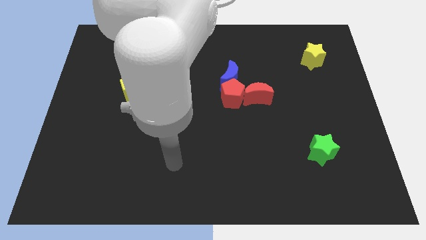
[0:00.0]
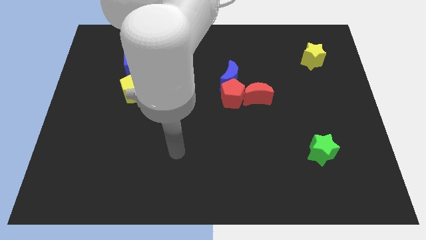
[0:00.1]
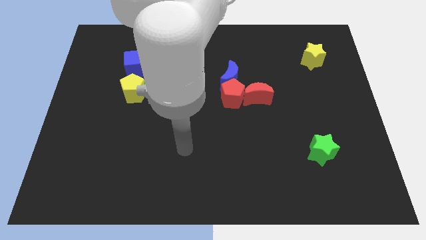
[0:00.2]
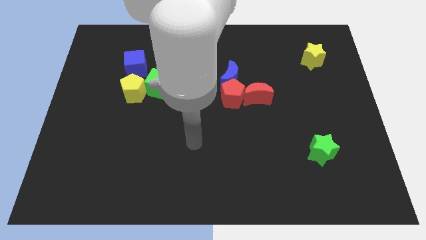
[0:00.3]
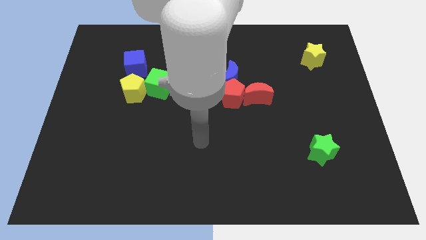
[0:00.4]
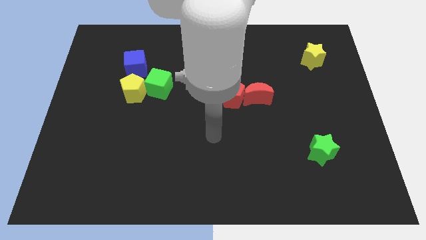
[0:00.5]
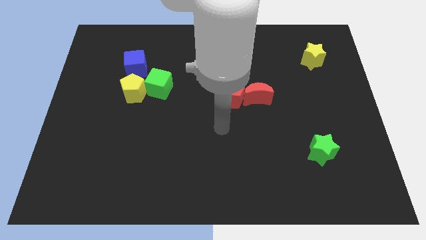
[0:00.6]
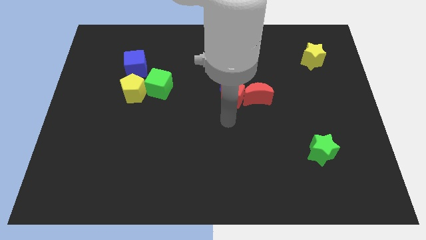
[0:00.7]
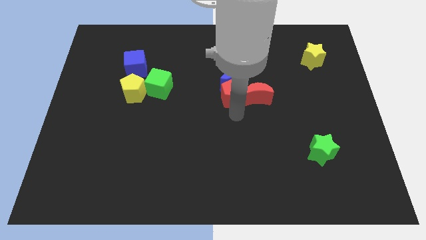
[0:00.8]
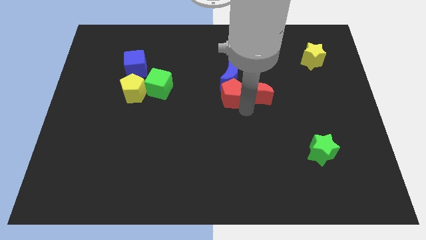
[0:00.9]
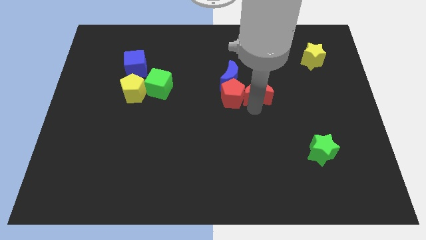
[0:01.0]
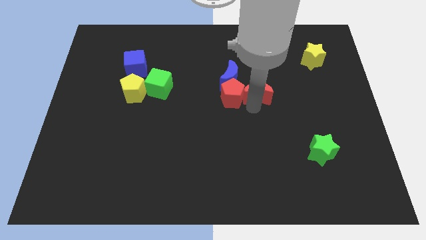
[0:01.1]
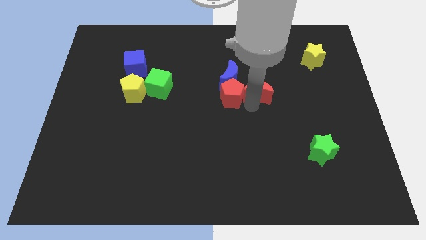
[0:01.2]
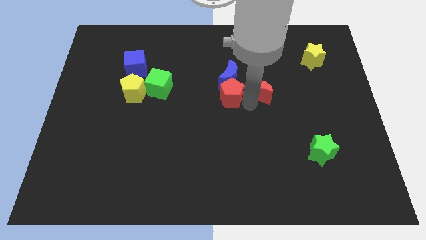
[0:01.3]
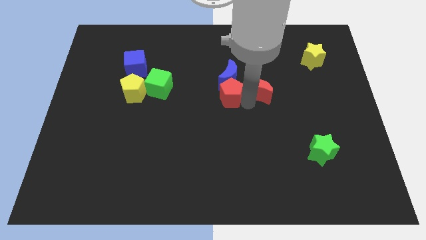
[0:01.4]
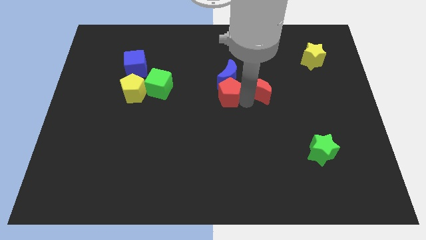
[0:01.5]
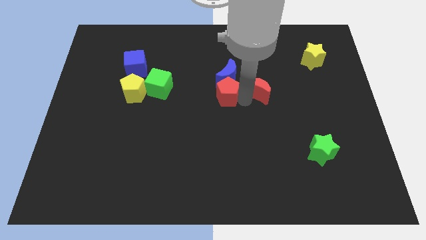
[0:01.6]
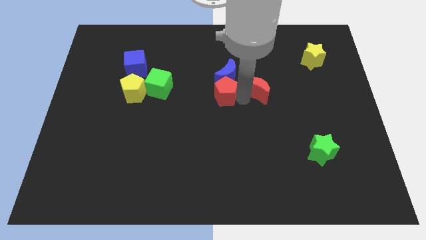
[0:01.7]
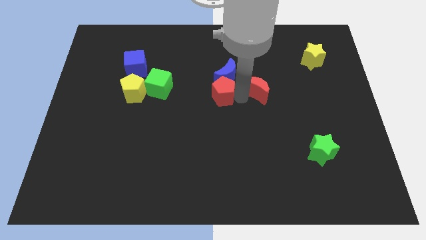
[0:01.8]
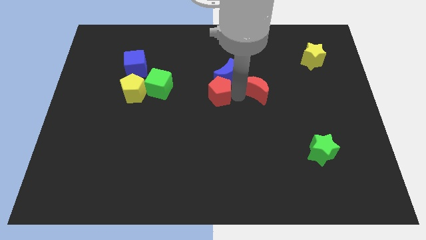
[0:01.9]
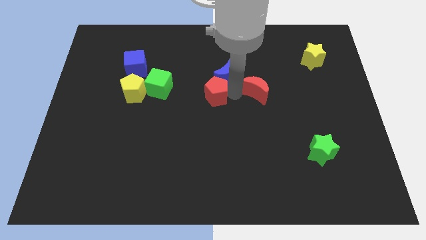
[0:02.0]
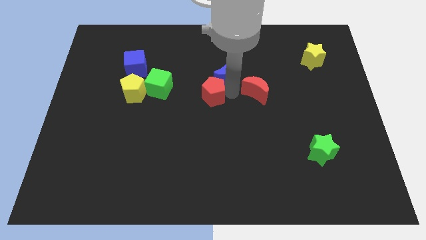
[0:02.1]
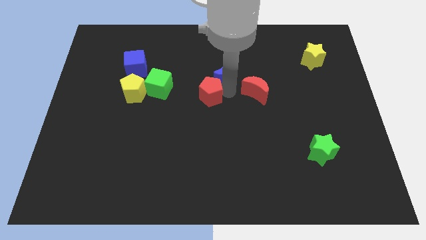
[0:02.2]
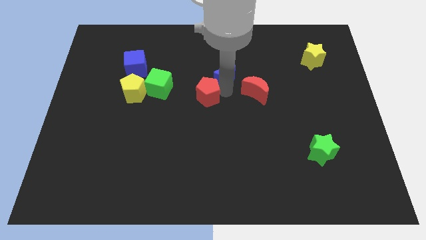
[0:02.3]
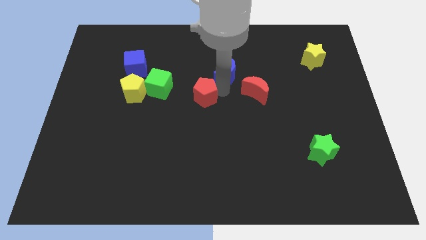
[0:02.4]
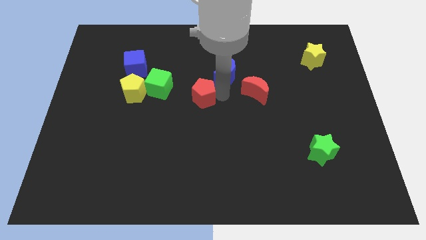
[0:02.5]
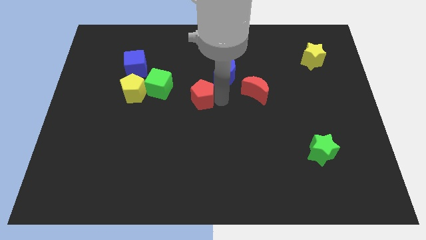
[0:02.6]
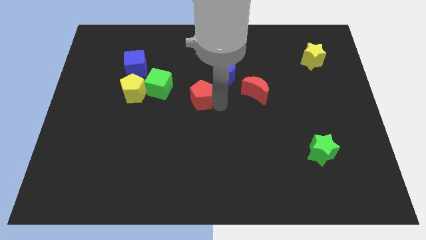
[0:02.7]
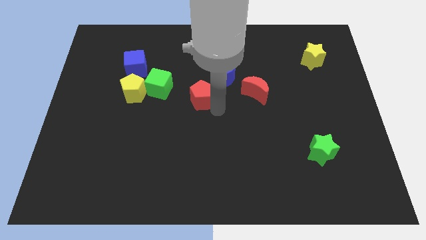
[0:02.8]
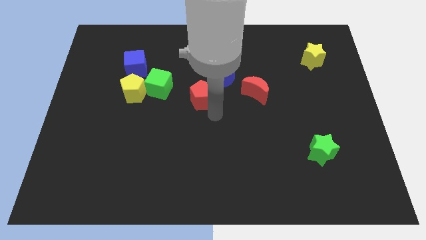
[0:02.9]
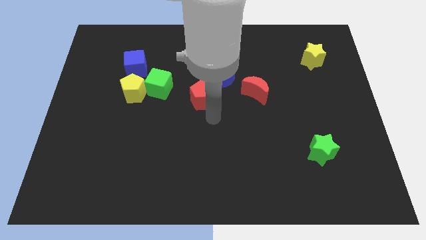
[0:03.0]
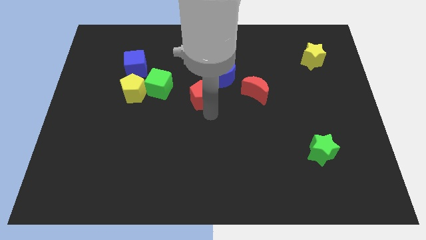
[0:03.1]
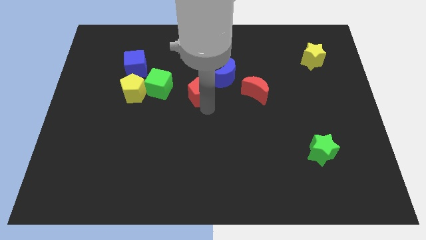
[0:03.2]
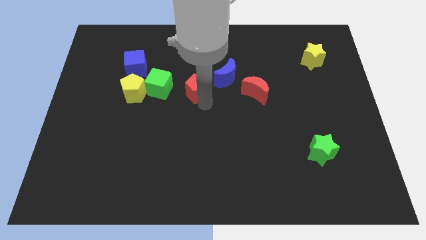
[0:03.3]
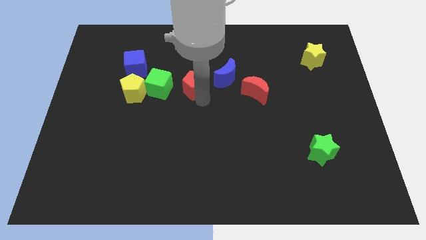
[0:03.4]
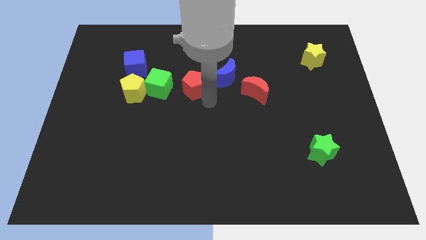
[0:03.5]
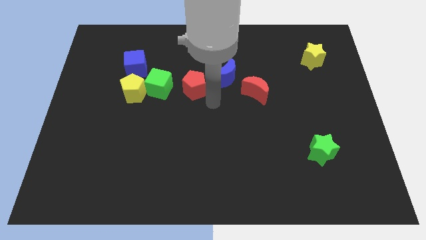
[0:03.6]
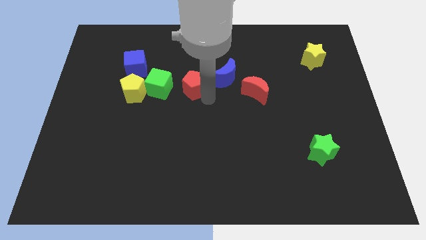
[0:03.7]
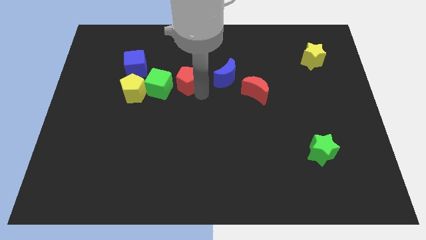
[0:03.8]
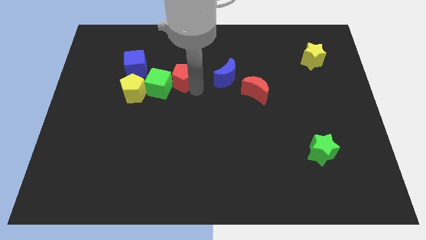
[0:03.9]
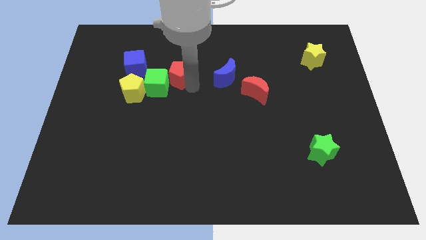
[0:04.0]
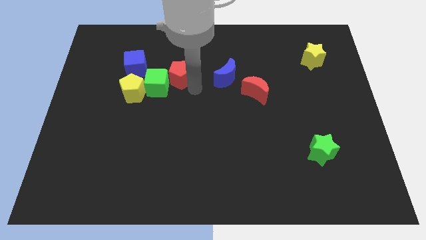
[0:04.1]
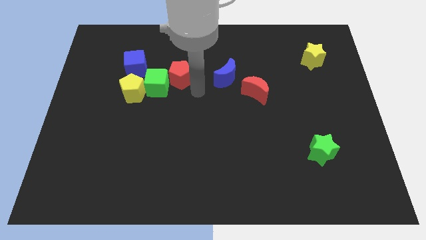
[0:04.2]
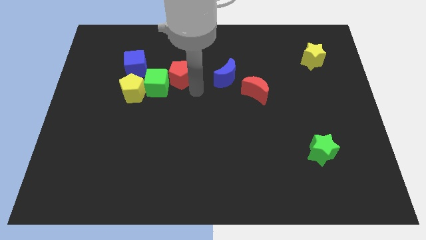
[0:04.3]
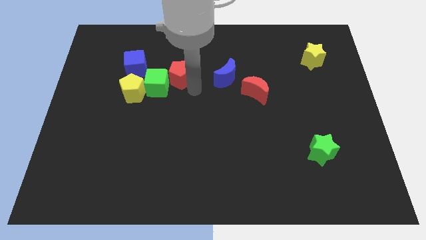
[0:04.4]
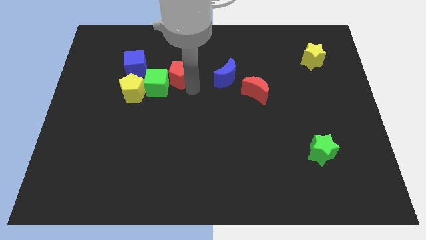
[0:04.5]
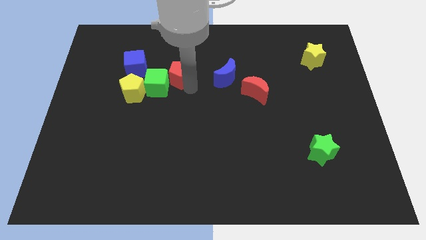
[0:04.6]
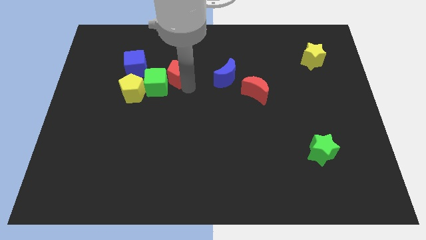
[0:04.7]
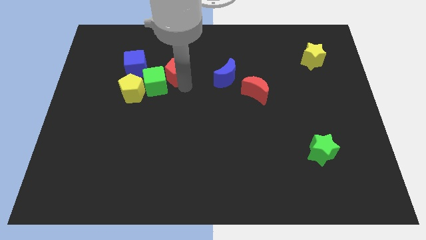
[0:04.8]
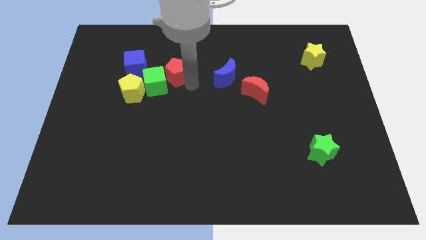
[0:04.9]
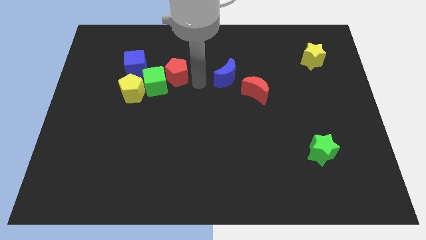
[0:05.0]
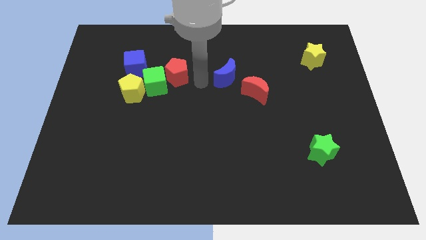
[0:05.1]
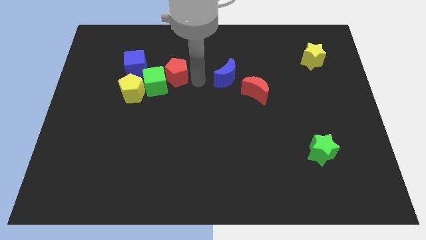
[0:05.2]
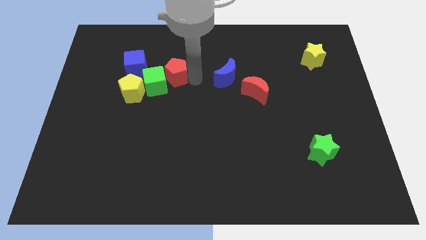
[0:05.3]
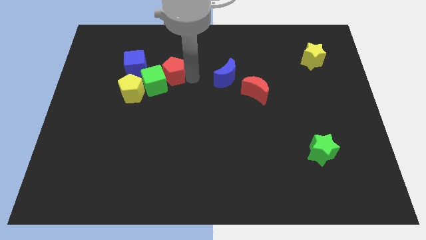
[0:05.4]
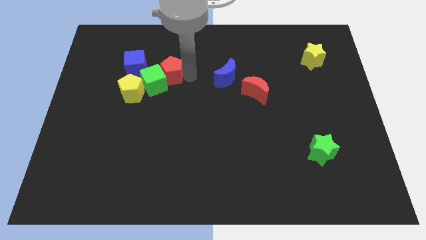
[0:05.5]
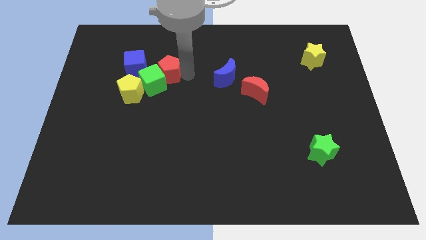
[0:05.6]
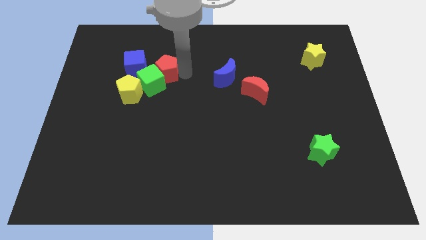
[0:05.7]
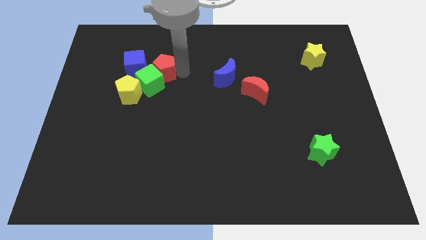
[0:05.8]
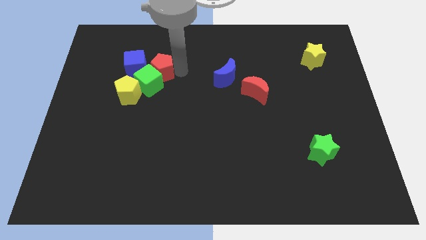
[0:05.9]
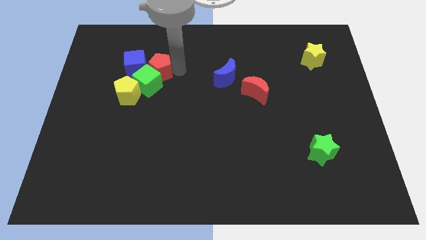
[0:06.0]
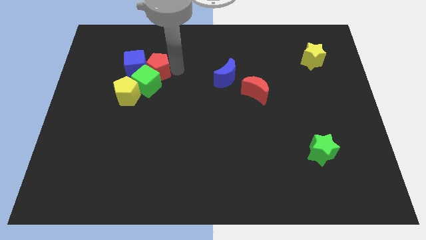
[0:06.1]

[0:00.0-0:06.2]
move the red pentagon next to the blue cube

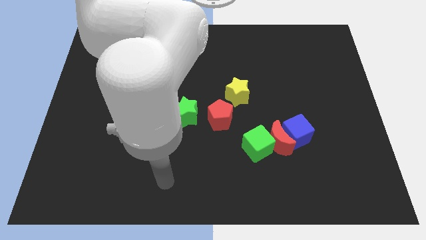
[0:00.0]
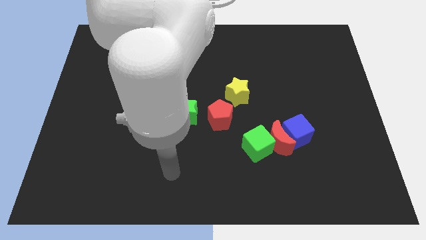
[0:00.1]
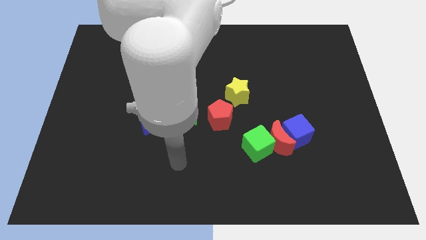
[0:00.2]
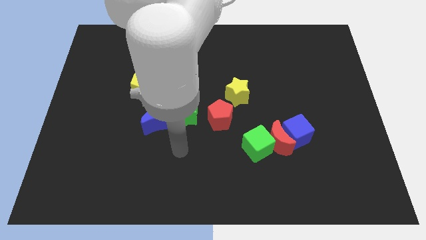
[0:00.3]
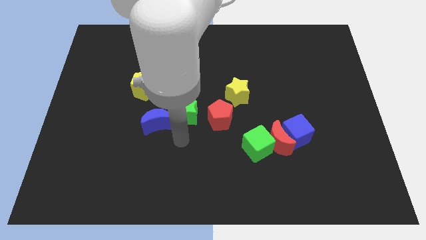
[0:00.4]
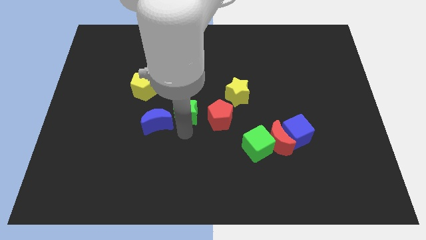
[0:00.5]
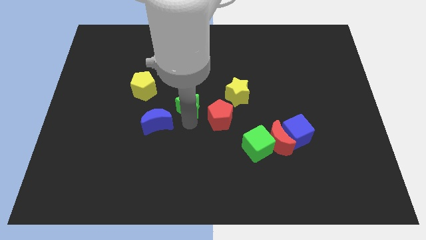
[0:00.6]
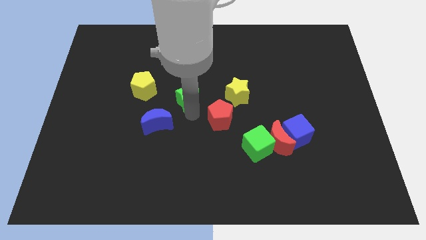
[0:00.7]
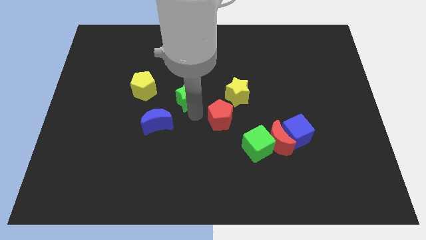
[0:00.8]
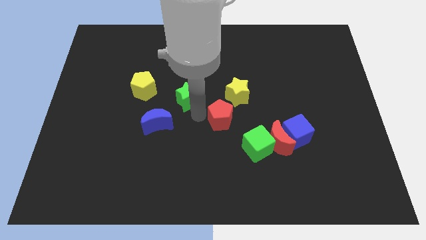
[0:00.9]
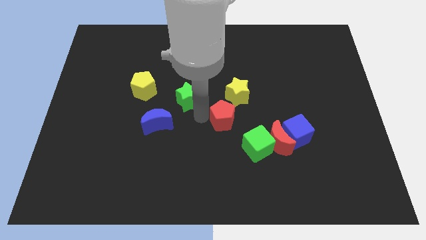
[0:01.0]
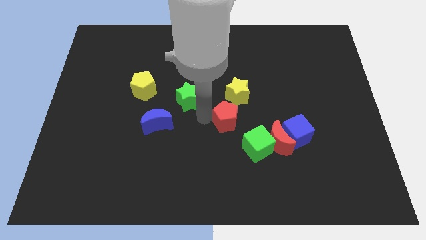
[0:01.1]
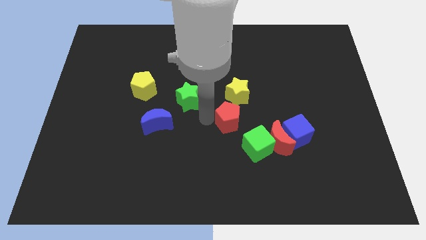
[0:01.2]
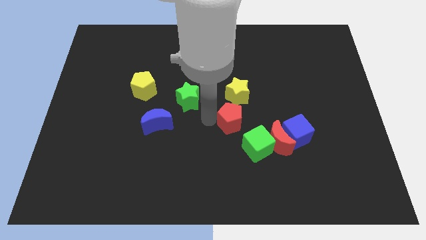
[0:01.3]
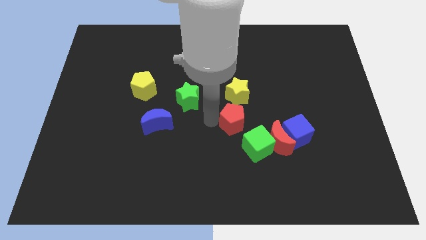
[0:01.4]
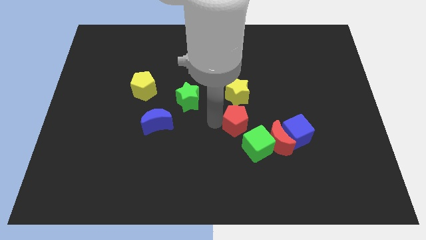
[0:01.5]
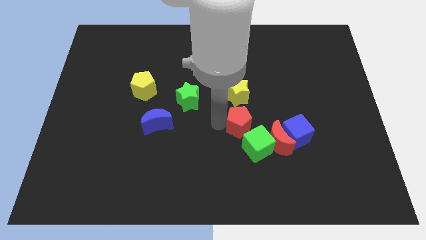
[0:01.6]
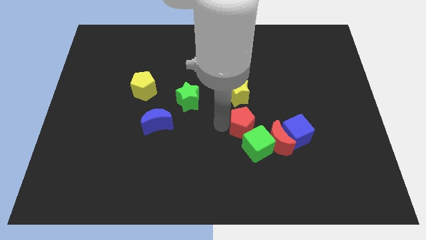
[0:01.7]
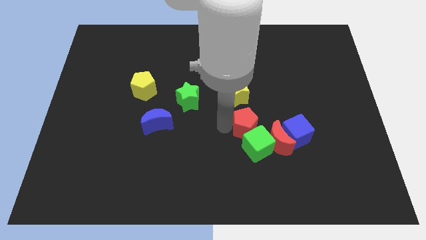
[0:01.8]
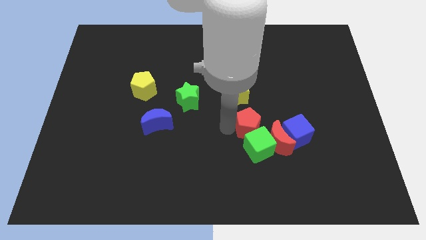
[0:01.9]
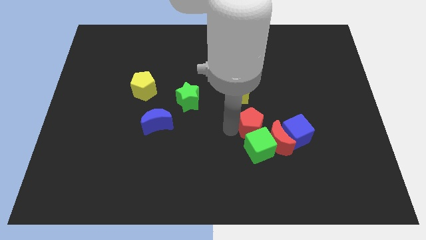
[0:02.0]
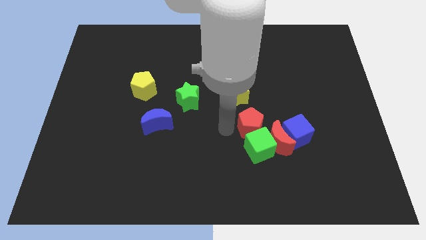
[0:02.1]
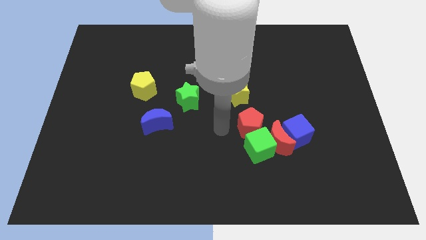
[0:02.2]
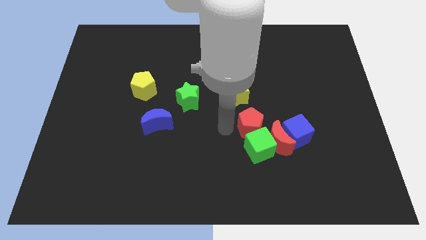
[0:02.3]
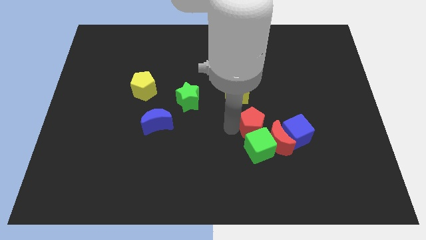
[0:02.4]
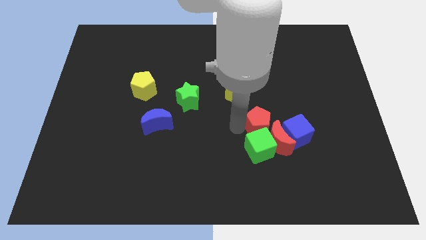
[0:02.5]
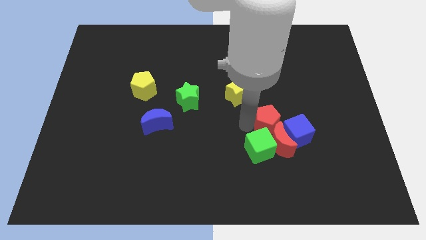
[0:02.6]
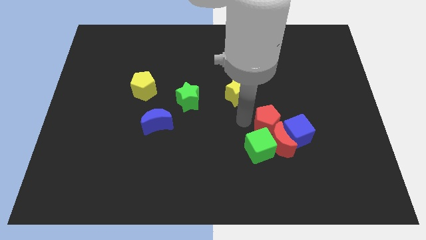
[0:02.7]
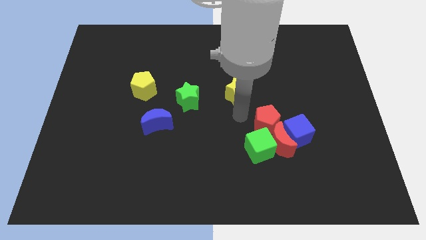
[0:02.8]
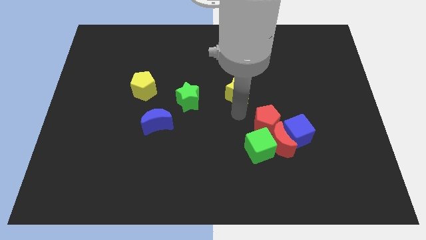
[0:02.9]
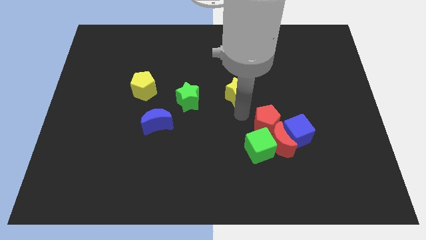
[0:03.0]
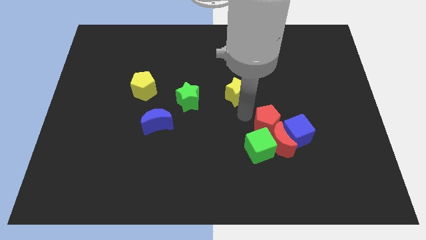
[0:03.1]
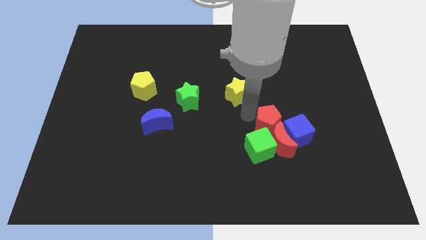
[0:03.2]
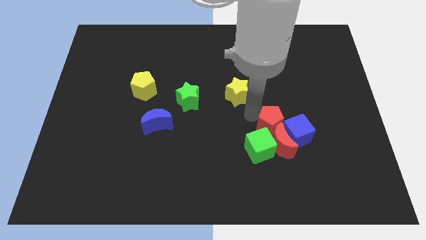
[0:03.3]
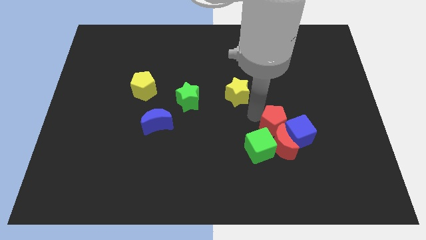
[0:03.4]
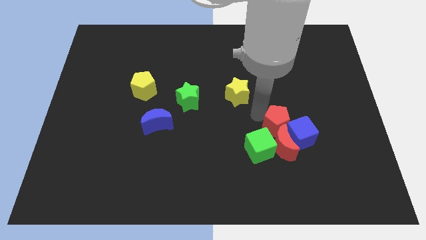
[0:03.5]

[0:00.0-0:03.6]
move the red pentagon close to the blue cube
